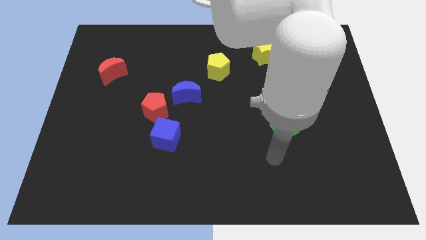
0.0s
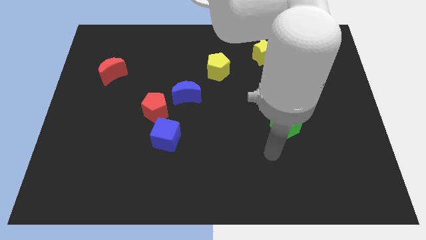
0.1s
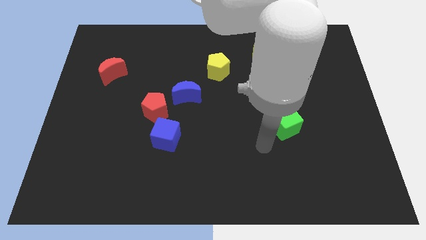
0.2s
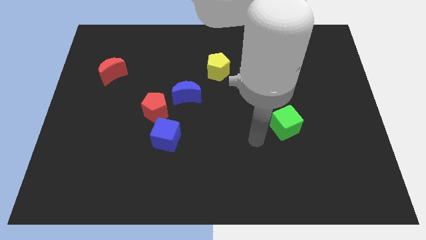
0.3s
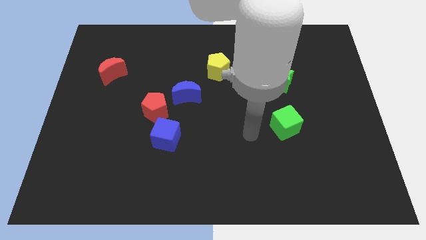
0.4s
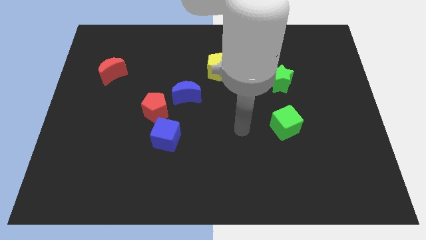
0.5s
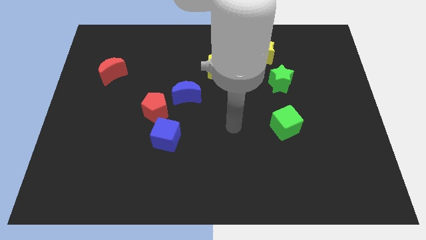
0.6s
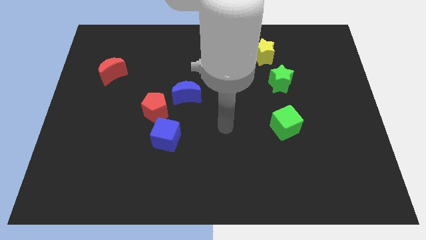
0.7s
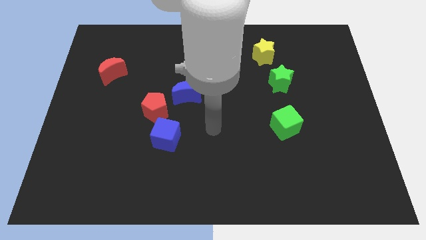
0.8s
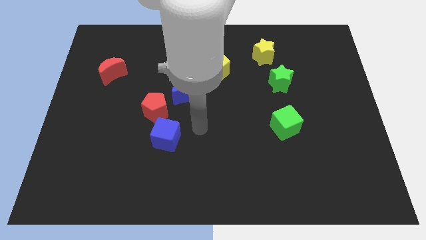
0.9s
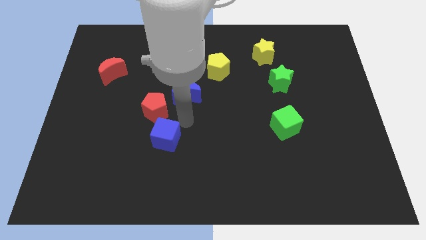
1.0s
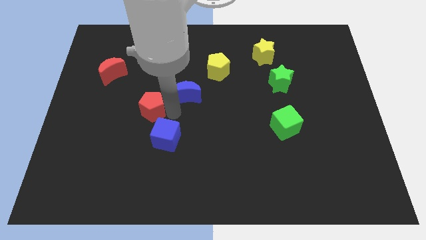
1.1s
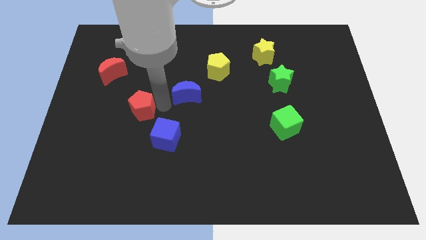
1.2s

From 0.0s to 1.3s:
separate the blue moon from the red pentagon

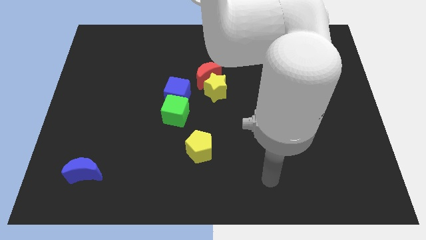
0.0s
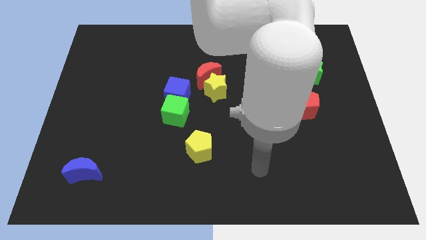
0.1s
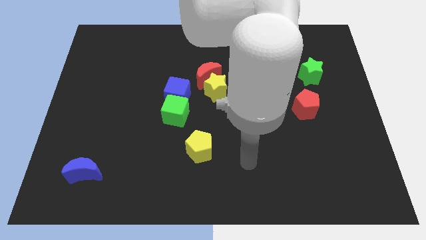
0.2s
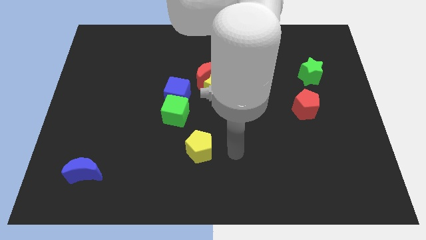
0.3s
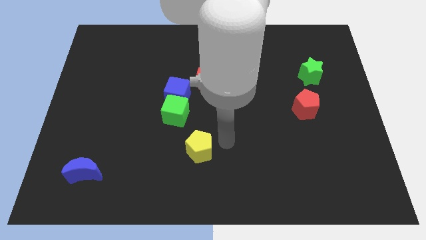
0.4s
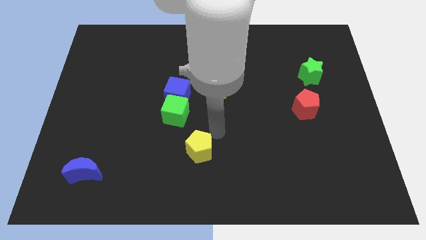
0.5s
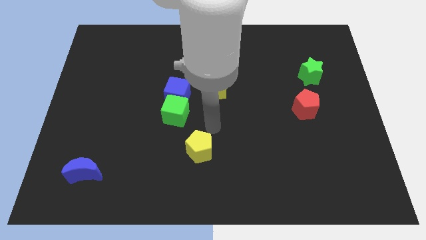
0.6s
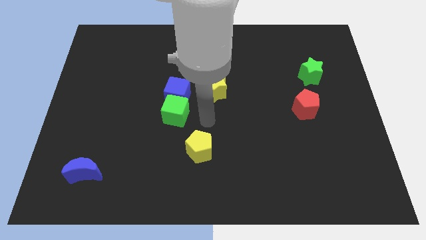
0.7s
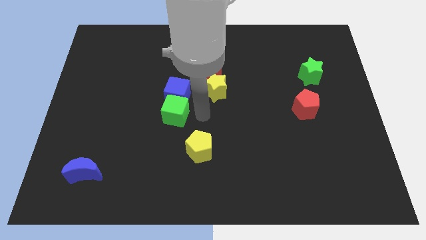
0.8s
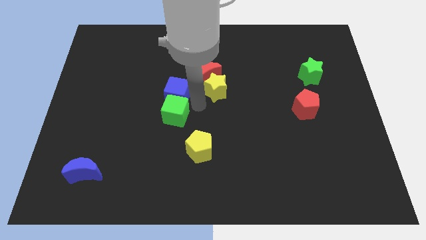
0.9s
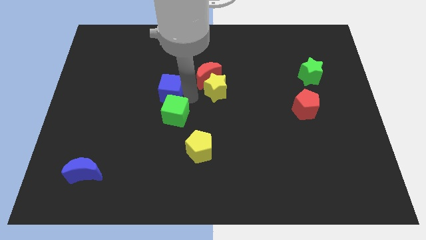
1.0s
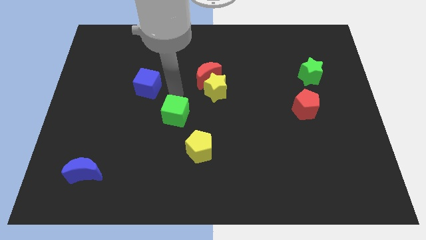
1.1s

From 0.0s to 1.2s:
pull the green cube apart from the blue cube

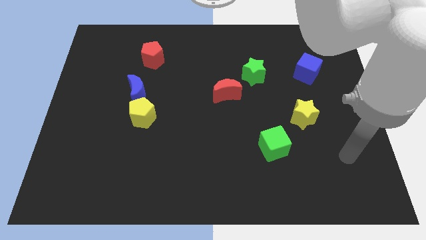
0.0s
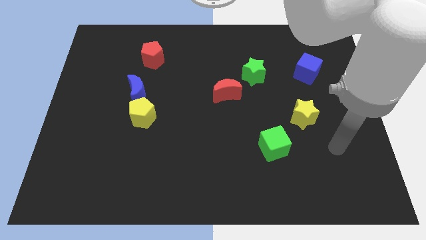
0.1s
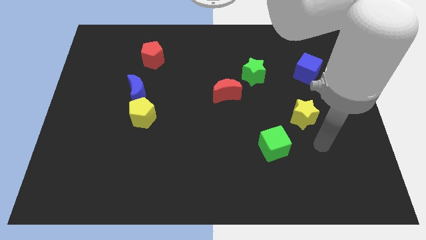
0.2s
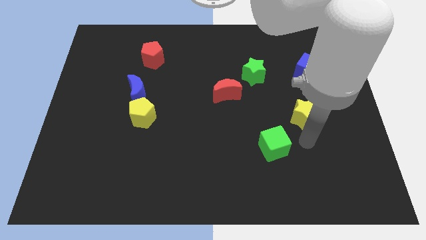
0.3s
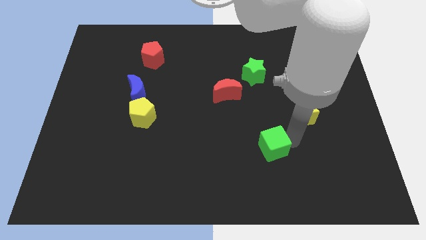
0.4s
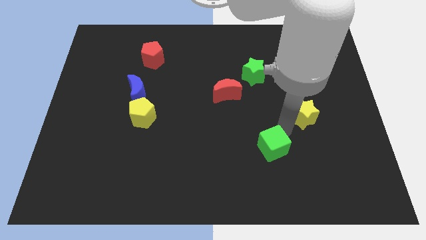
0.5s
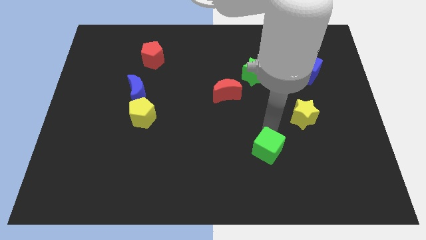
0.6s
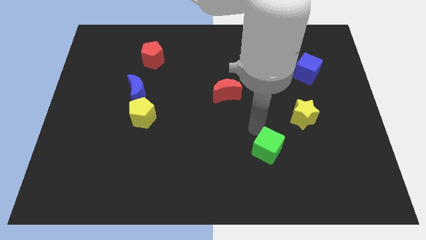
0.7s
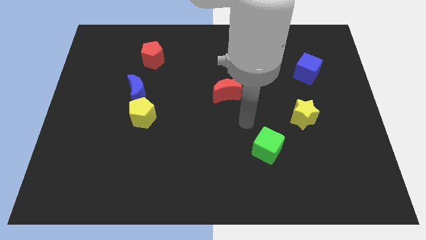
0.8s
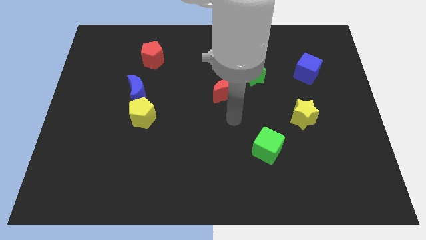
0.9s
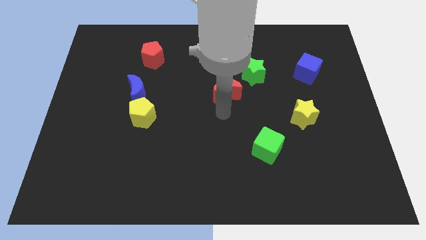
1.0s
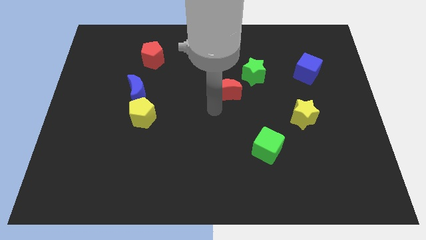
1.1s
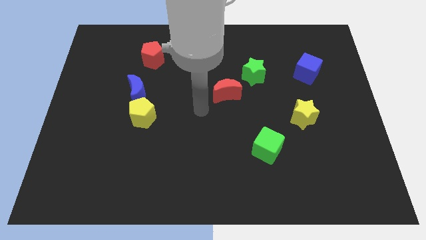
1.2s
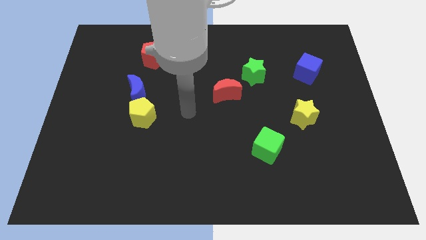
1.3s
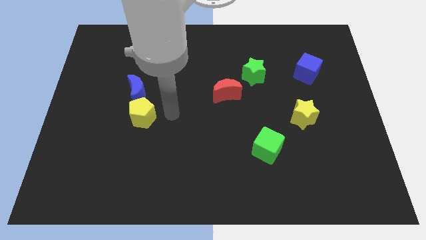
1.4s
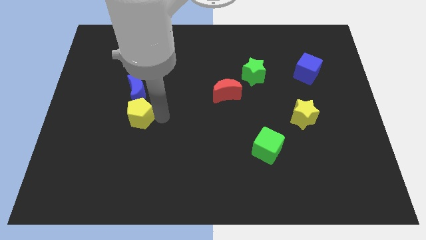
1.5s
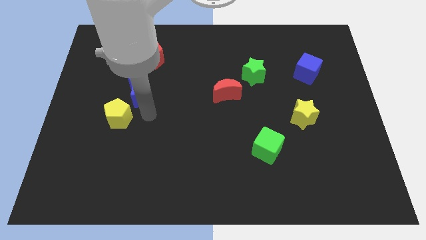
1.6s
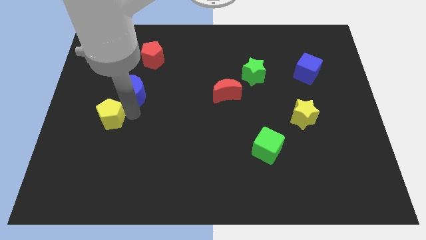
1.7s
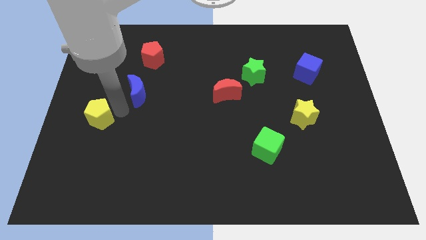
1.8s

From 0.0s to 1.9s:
separate the blue moon from the yellow pentagon

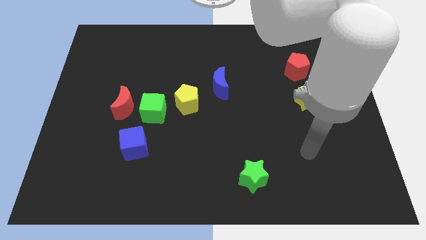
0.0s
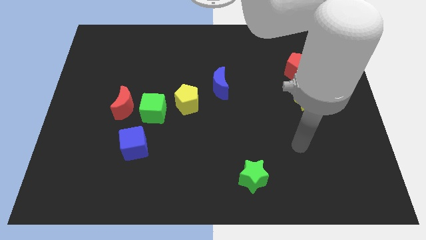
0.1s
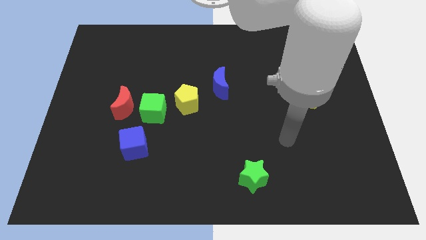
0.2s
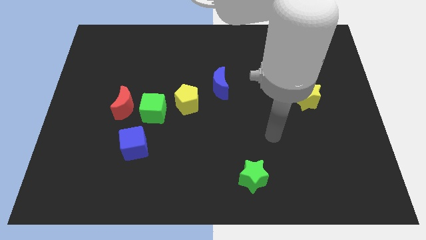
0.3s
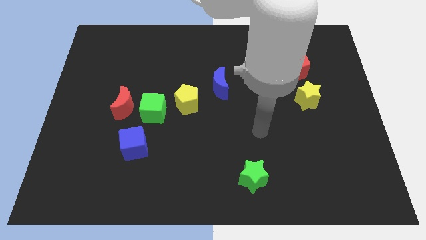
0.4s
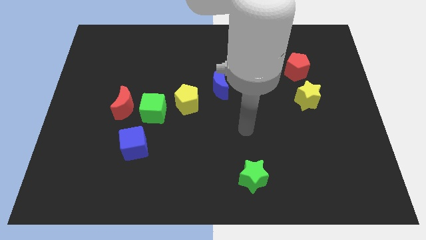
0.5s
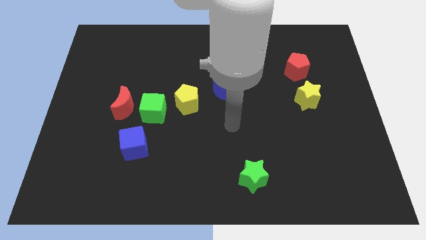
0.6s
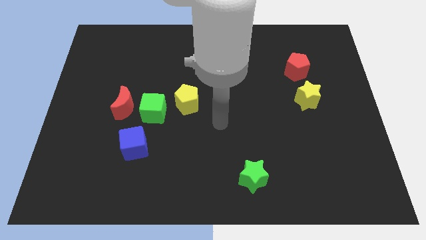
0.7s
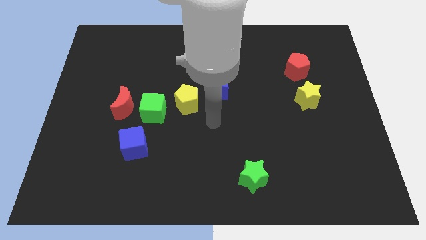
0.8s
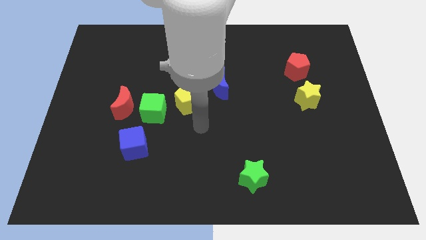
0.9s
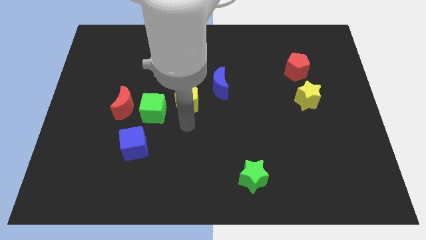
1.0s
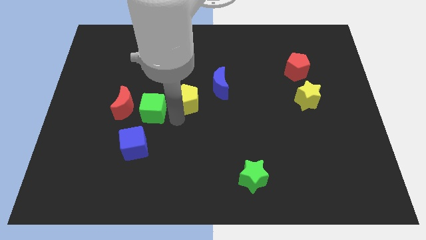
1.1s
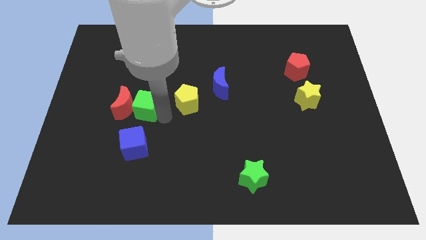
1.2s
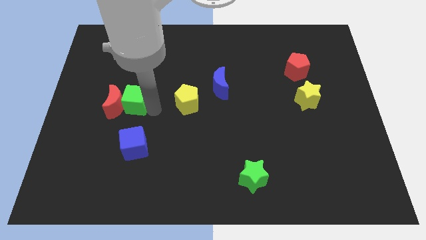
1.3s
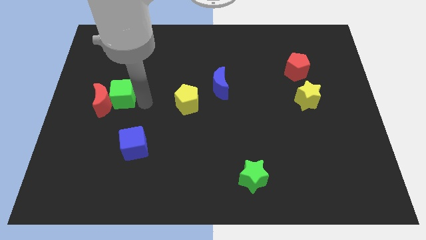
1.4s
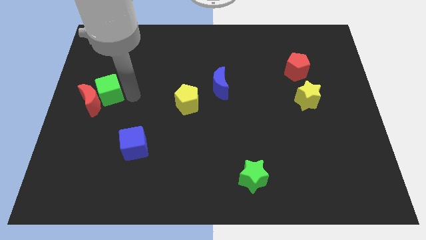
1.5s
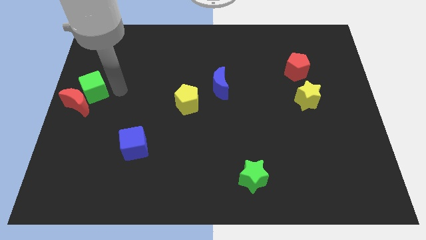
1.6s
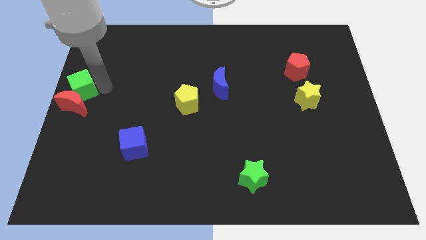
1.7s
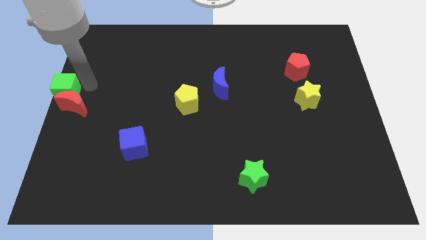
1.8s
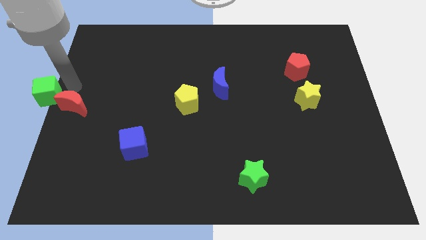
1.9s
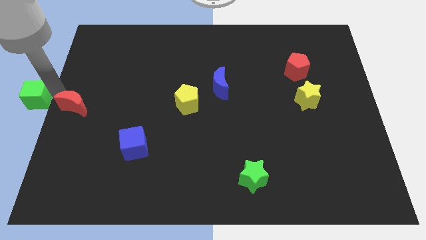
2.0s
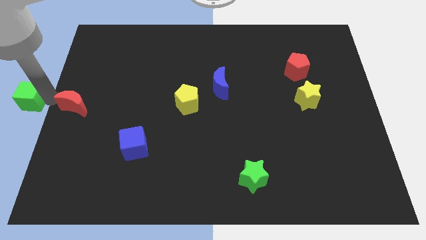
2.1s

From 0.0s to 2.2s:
move the red moon away from the green cube

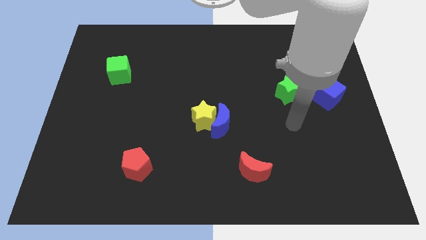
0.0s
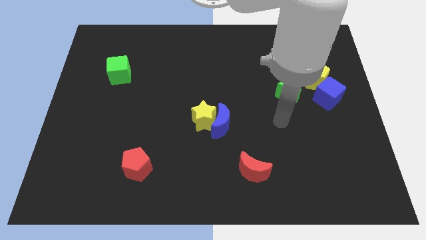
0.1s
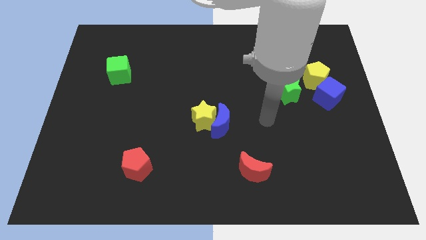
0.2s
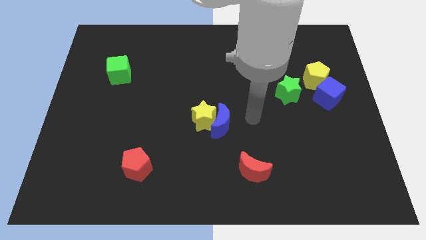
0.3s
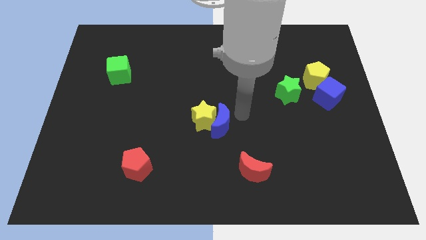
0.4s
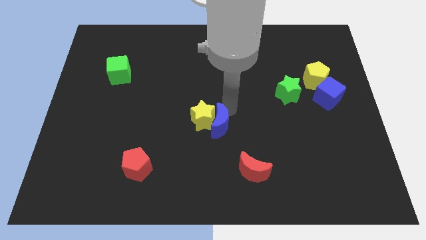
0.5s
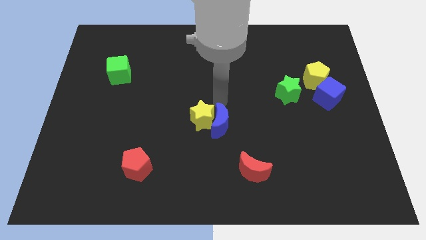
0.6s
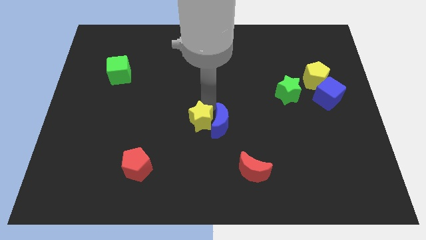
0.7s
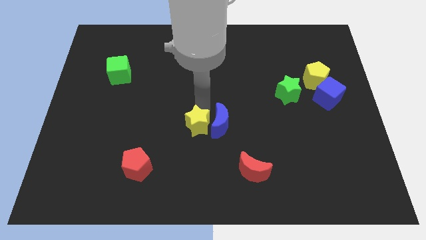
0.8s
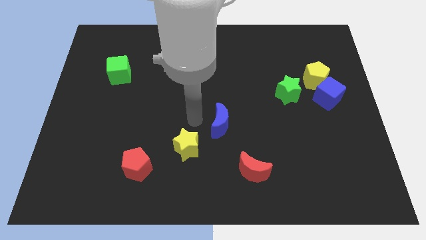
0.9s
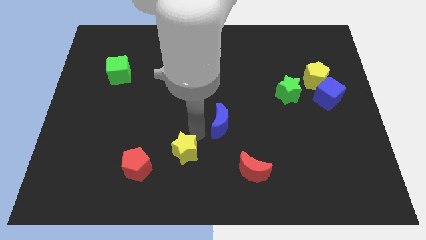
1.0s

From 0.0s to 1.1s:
move the blue moon away from the yellow star

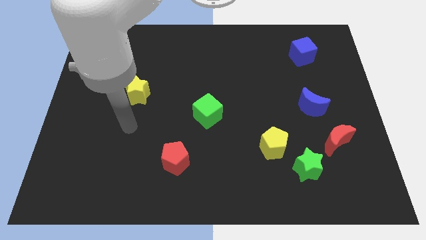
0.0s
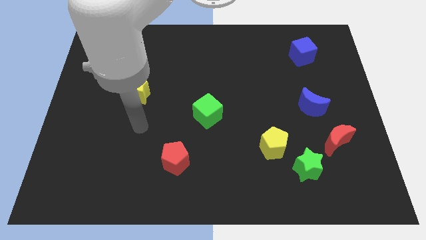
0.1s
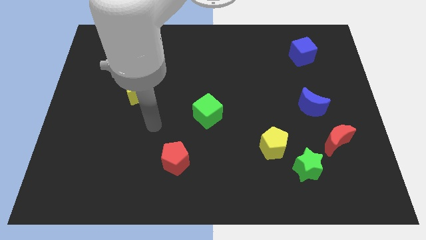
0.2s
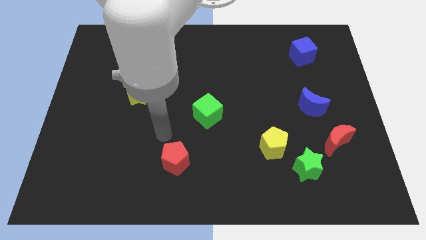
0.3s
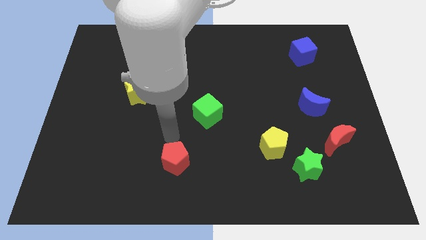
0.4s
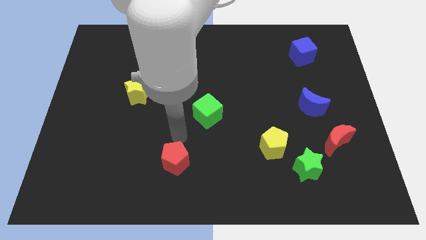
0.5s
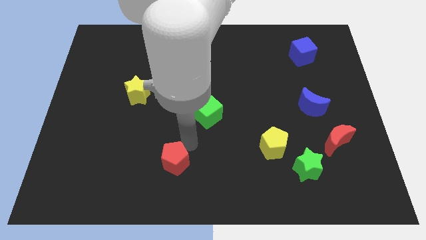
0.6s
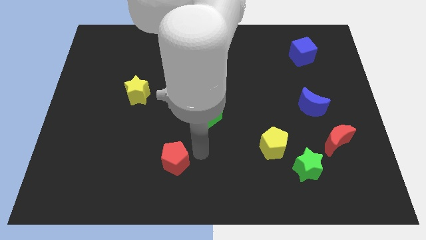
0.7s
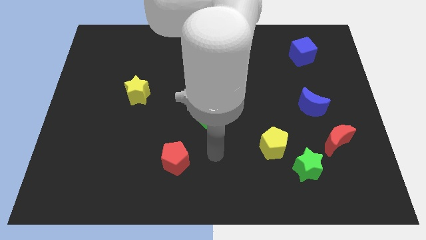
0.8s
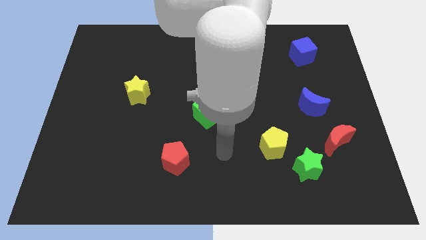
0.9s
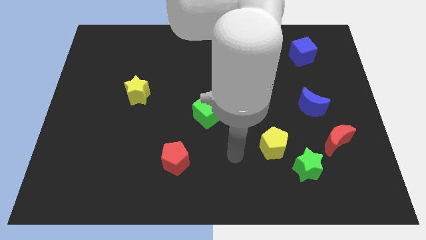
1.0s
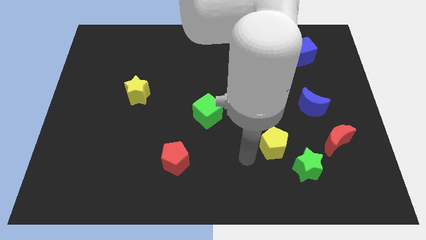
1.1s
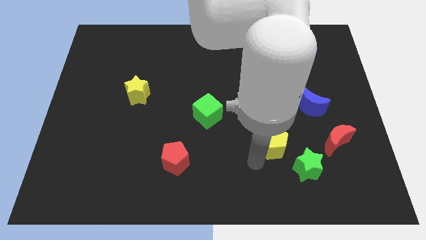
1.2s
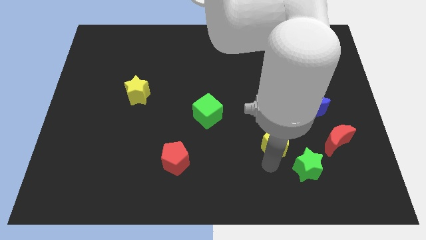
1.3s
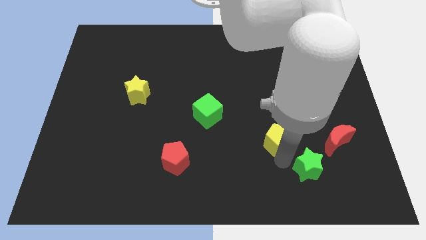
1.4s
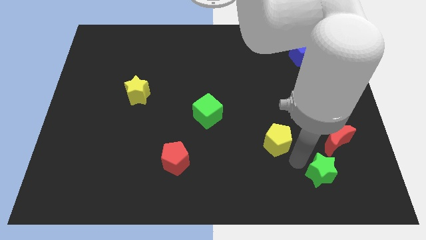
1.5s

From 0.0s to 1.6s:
move the yellow pentagon away from the green star
